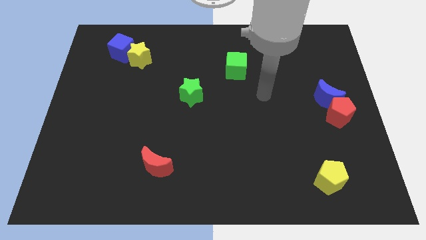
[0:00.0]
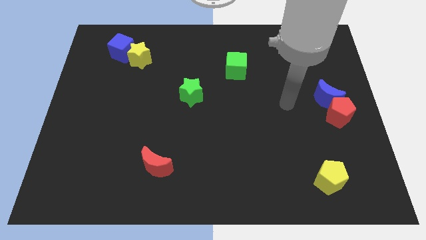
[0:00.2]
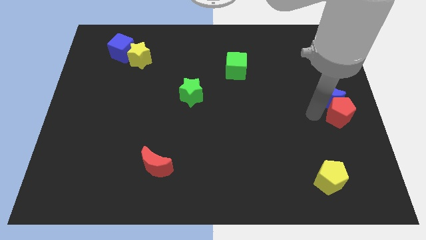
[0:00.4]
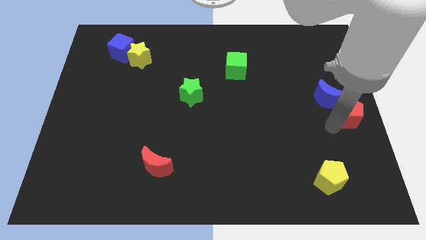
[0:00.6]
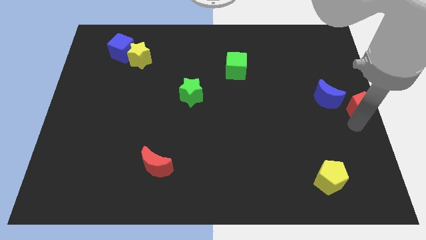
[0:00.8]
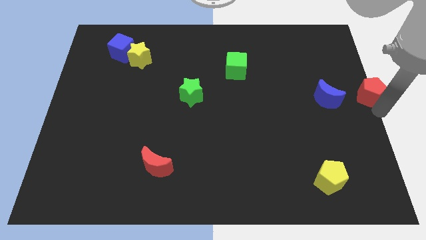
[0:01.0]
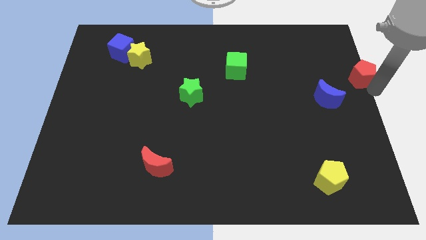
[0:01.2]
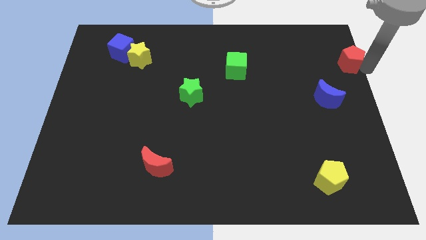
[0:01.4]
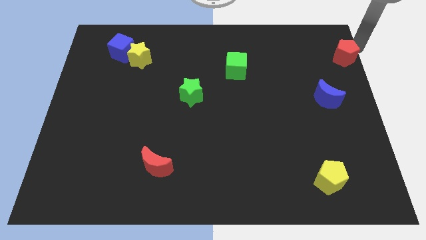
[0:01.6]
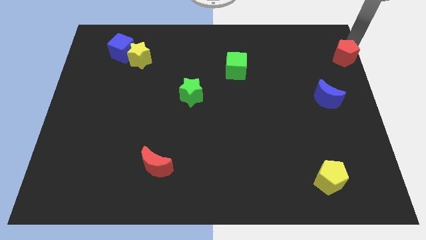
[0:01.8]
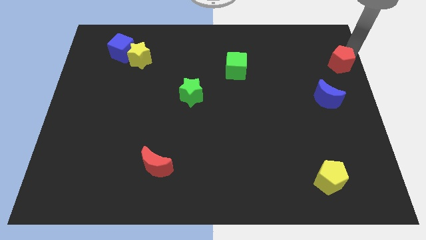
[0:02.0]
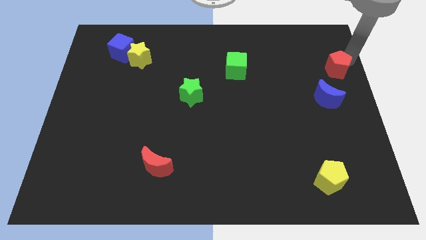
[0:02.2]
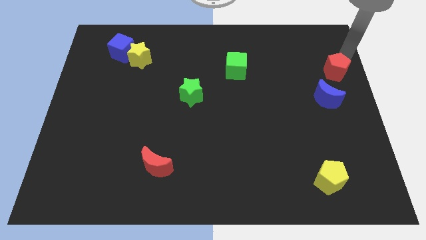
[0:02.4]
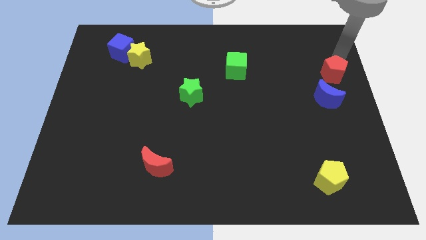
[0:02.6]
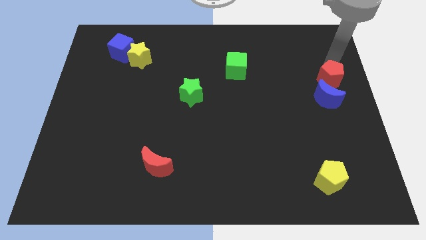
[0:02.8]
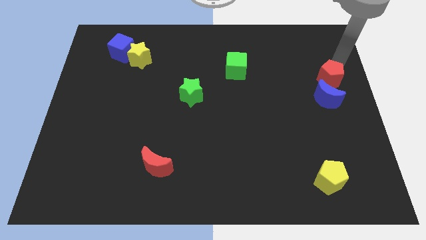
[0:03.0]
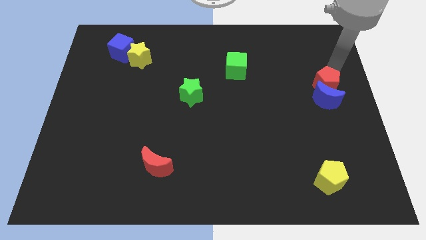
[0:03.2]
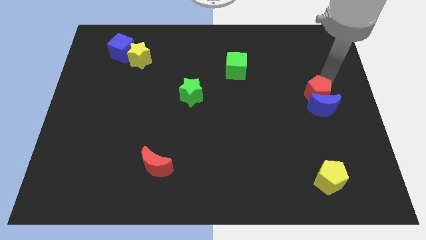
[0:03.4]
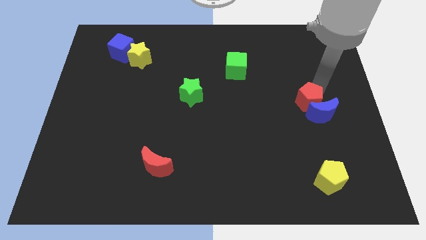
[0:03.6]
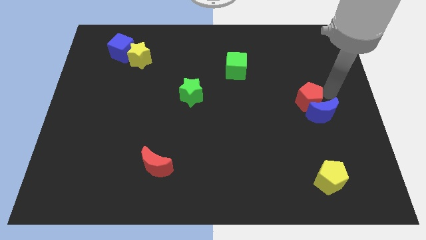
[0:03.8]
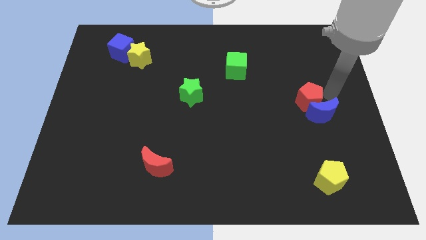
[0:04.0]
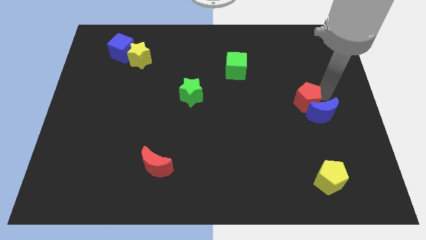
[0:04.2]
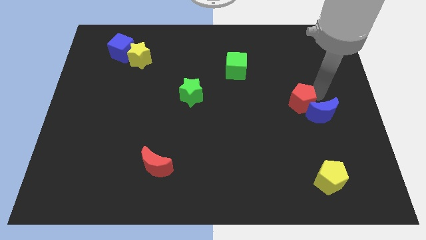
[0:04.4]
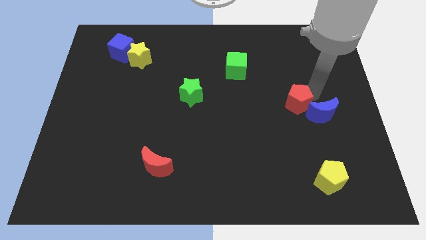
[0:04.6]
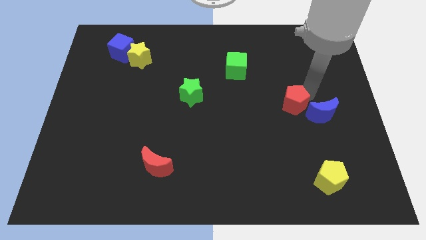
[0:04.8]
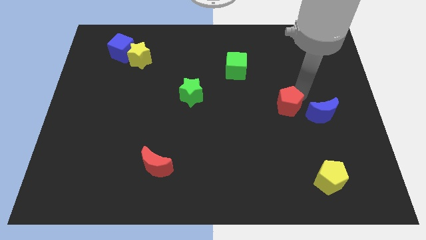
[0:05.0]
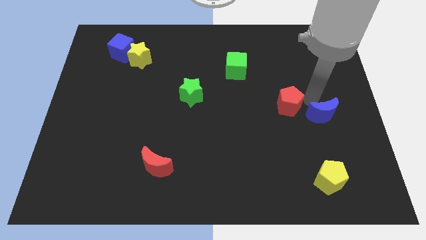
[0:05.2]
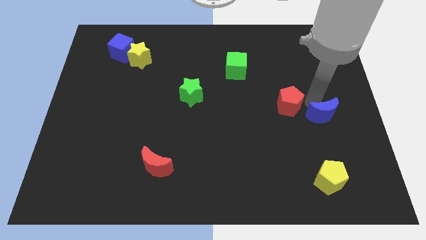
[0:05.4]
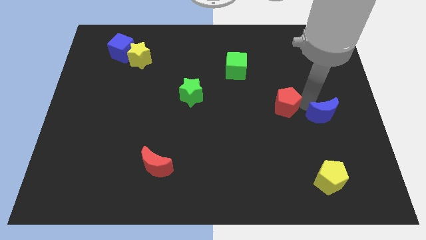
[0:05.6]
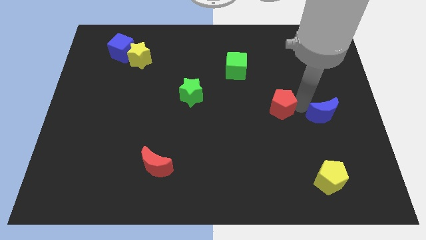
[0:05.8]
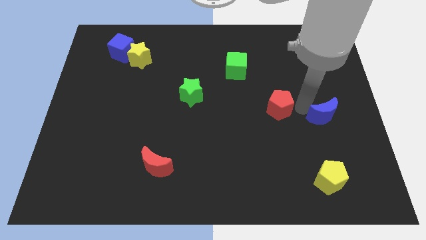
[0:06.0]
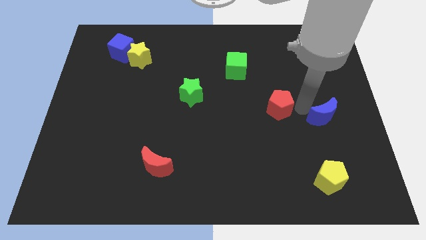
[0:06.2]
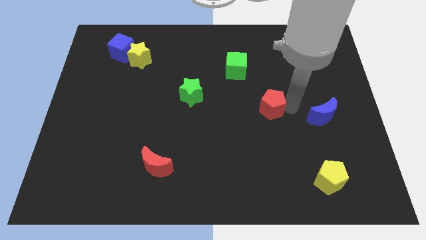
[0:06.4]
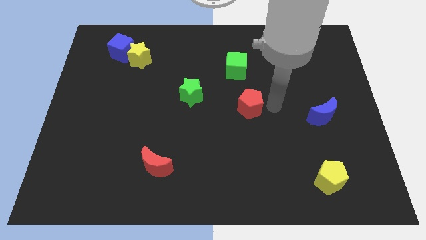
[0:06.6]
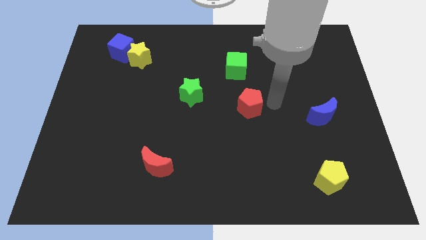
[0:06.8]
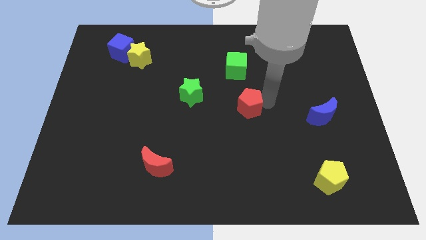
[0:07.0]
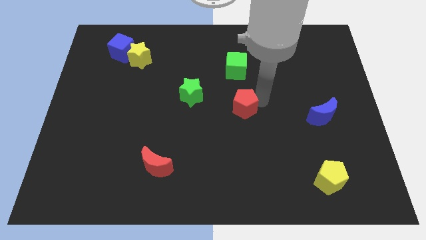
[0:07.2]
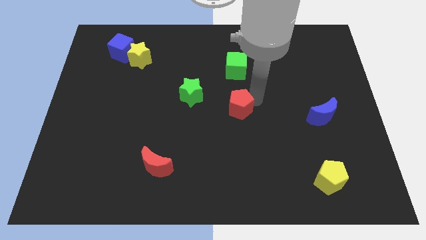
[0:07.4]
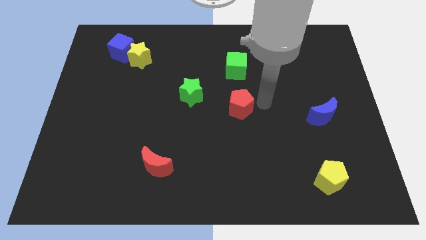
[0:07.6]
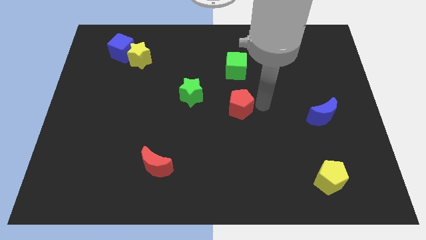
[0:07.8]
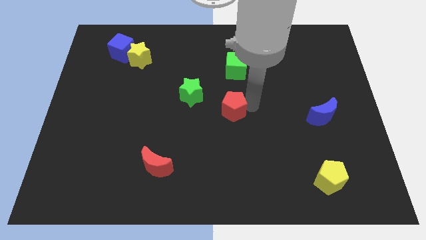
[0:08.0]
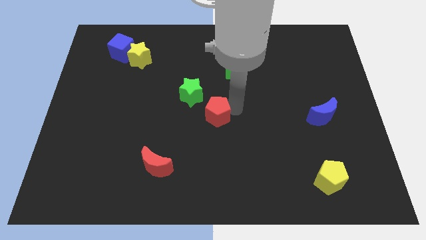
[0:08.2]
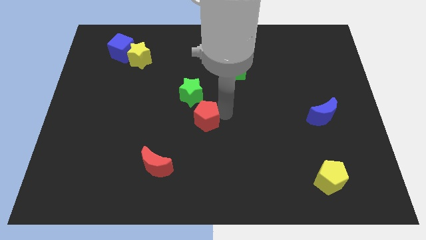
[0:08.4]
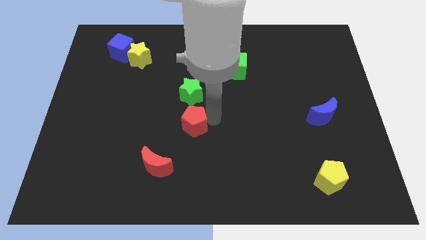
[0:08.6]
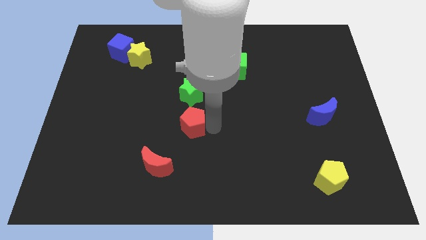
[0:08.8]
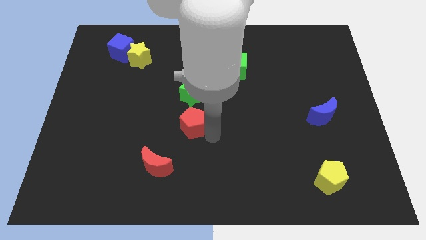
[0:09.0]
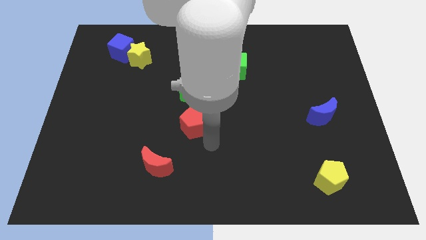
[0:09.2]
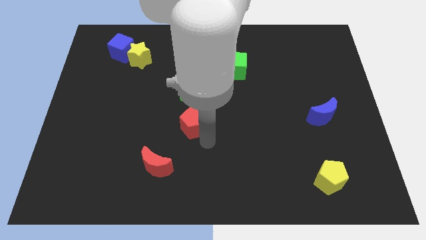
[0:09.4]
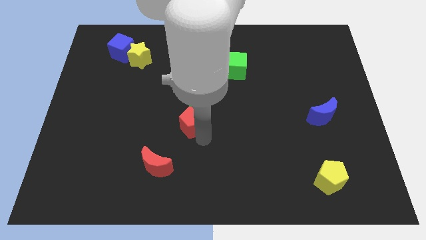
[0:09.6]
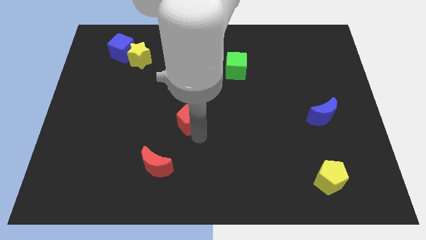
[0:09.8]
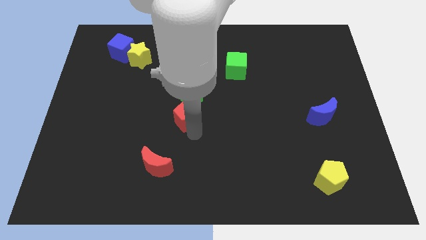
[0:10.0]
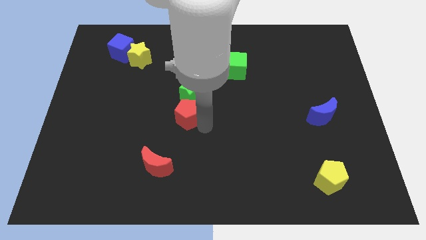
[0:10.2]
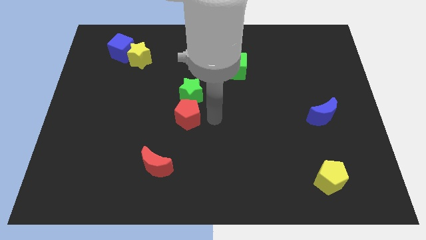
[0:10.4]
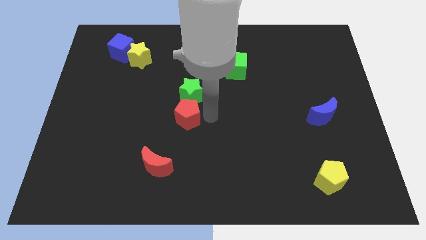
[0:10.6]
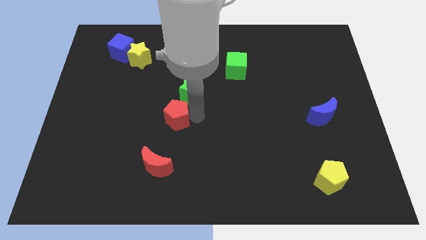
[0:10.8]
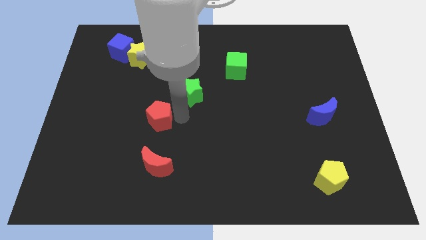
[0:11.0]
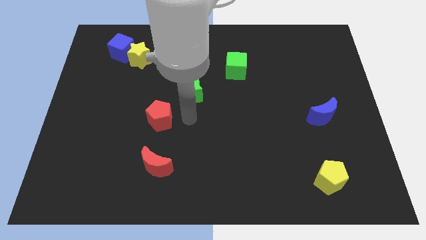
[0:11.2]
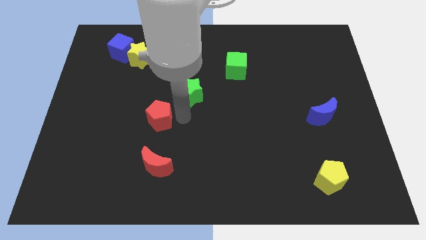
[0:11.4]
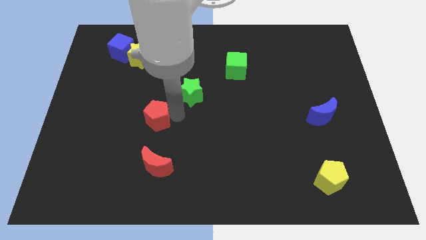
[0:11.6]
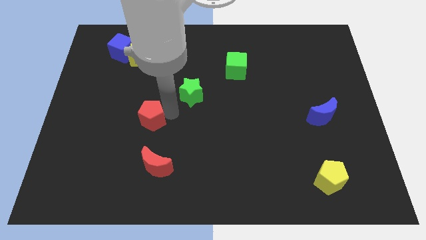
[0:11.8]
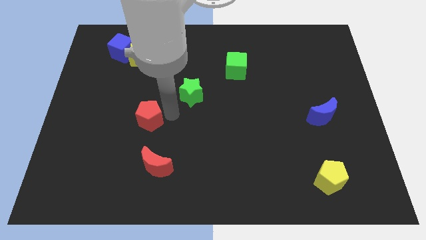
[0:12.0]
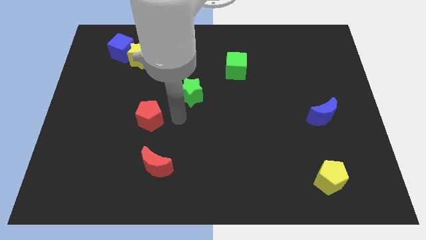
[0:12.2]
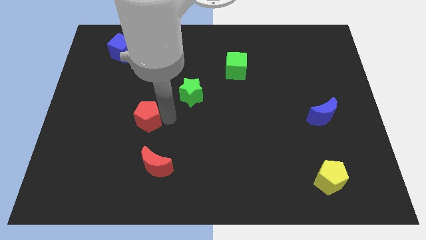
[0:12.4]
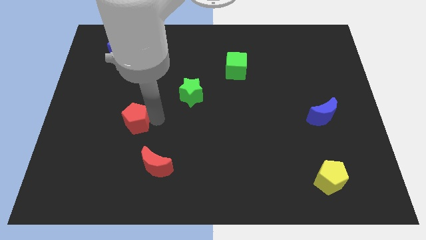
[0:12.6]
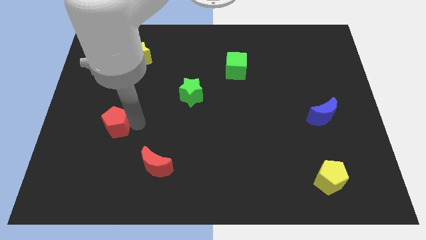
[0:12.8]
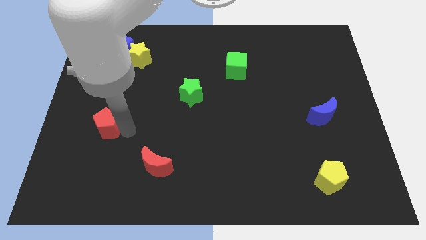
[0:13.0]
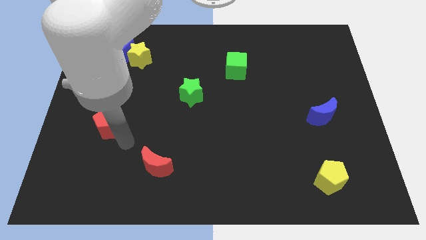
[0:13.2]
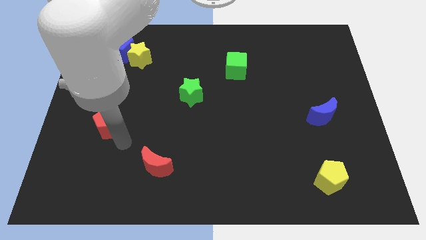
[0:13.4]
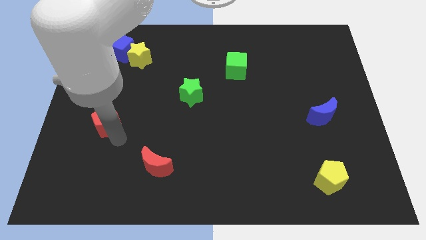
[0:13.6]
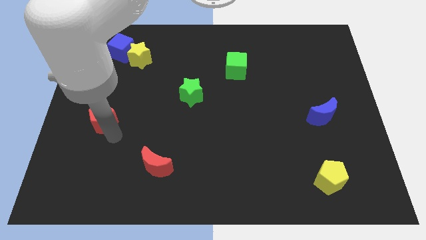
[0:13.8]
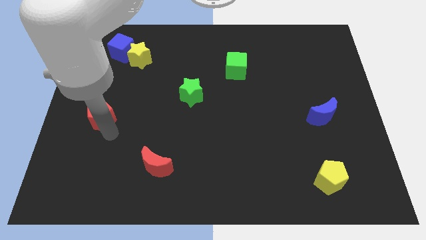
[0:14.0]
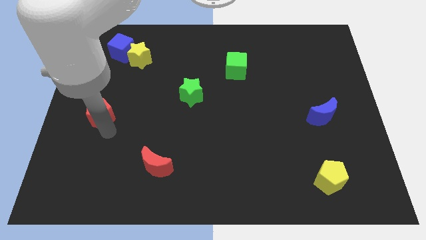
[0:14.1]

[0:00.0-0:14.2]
slide the red pentagon to the left side
